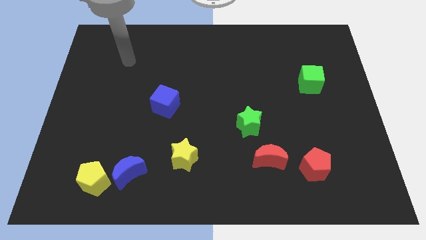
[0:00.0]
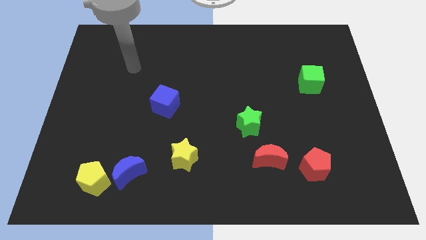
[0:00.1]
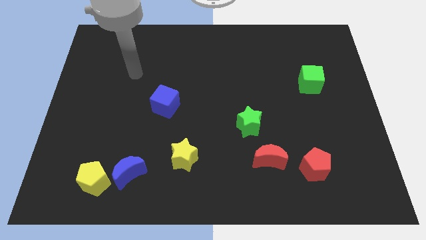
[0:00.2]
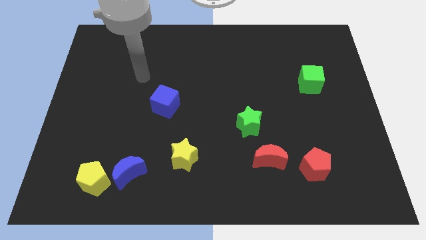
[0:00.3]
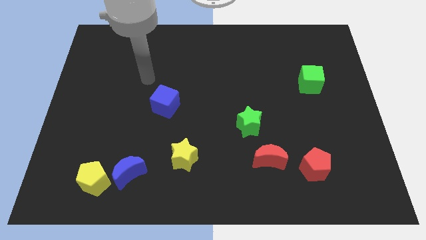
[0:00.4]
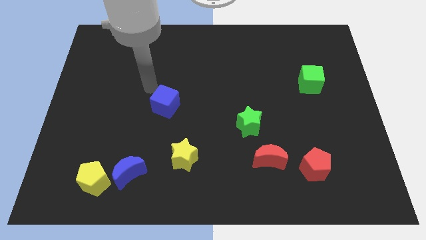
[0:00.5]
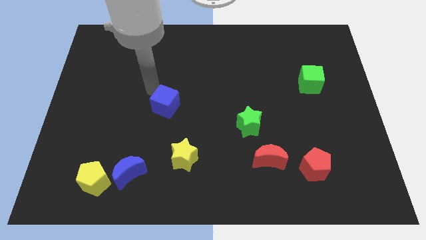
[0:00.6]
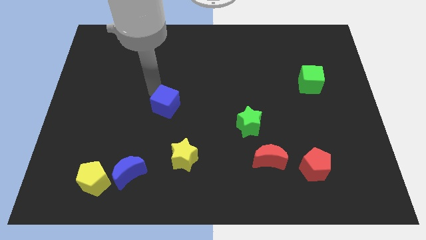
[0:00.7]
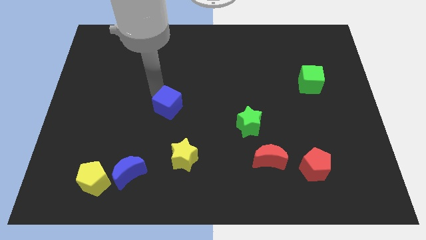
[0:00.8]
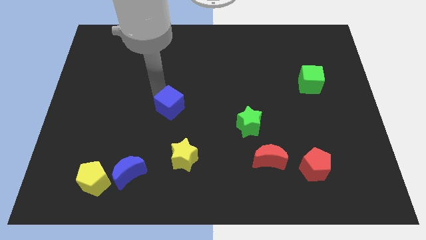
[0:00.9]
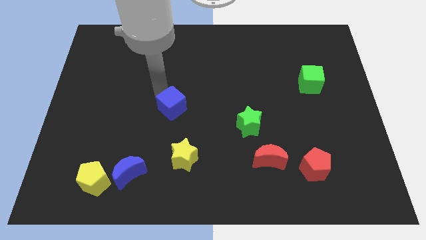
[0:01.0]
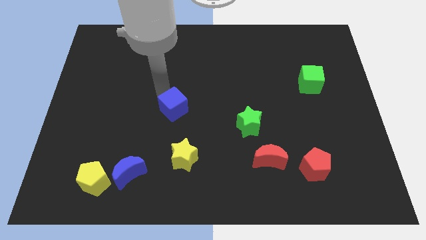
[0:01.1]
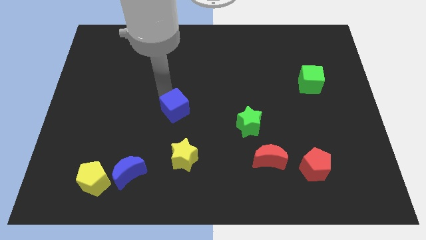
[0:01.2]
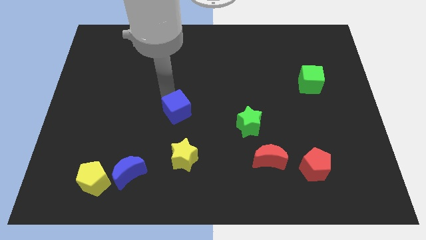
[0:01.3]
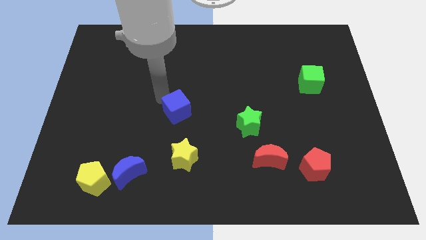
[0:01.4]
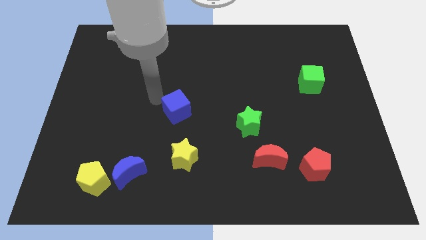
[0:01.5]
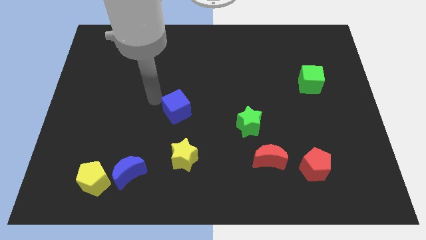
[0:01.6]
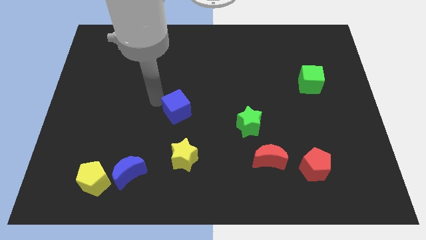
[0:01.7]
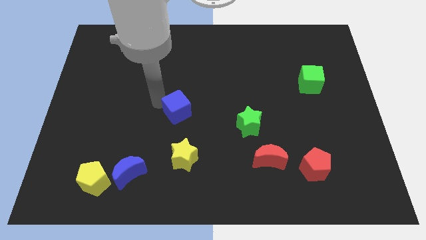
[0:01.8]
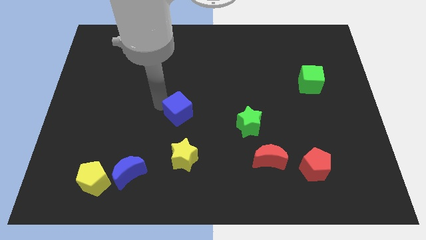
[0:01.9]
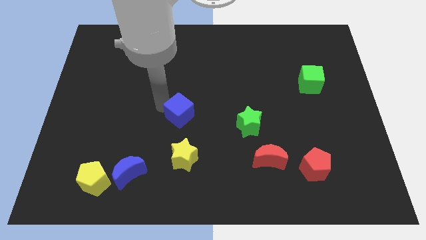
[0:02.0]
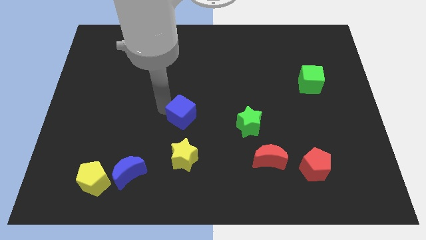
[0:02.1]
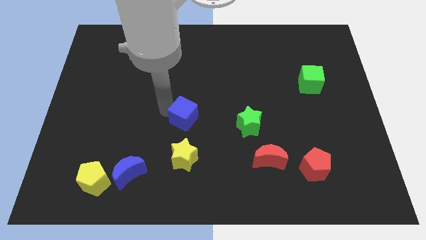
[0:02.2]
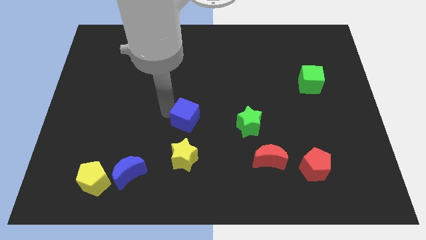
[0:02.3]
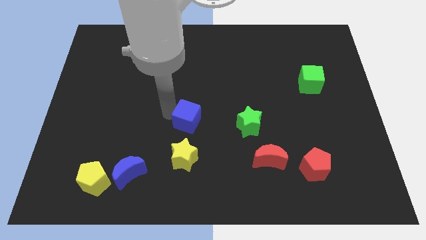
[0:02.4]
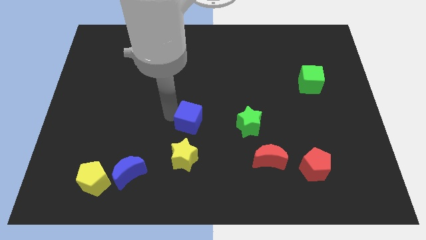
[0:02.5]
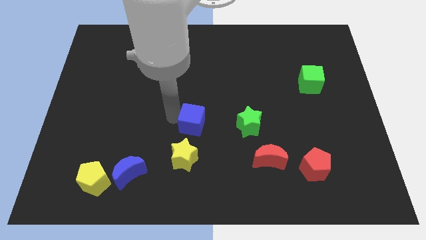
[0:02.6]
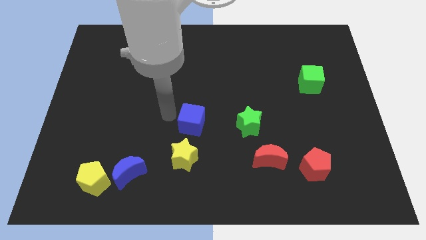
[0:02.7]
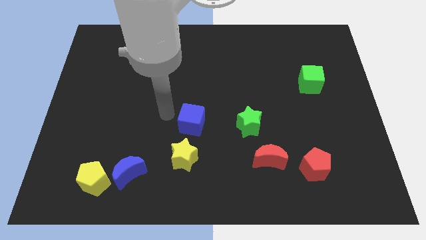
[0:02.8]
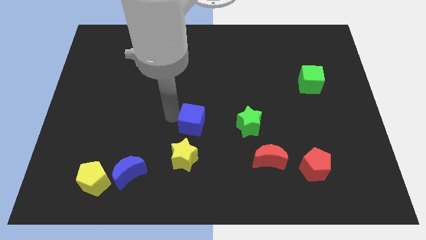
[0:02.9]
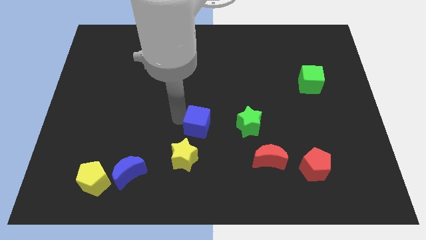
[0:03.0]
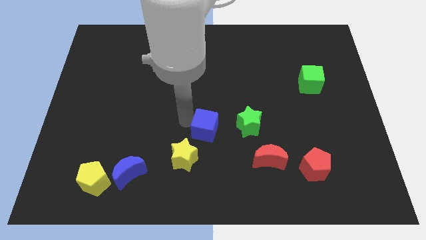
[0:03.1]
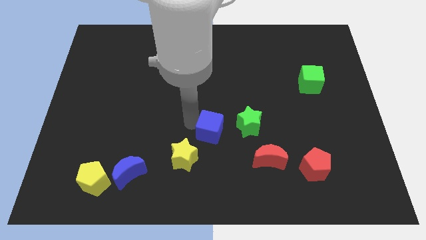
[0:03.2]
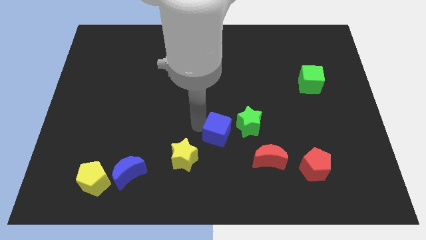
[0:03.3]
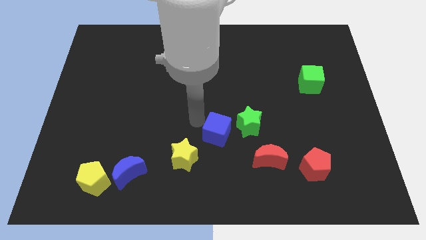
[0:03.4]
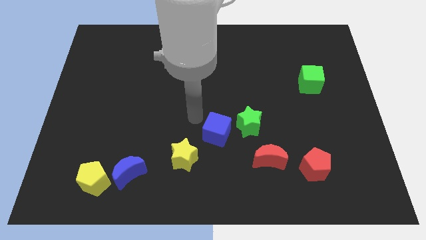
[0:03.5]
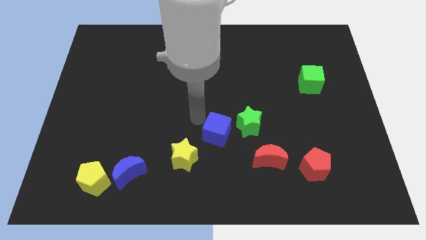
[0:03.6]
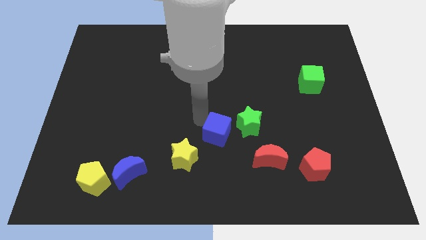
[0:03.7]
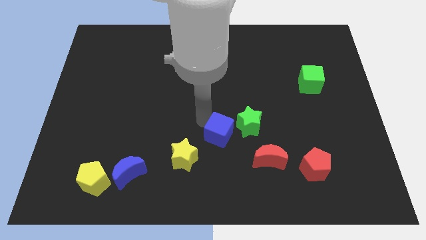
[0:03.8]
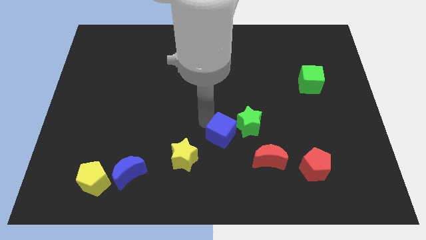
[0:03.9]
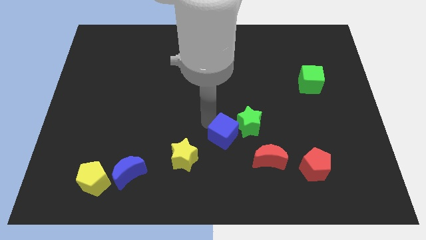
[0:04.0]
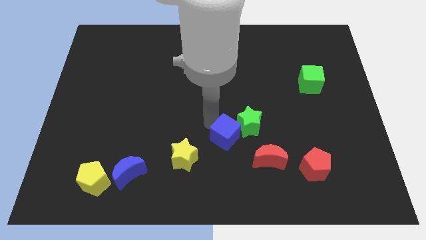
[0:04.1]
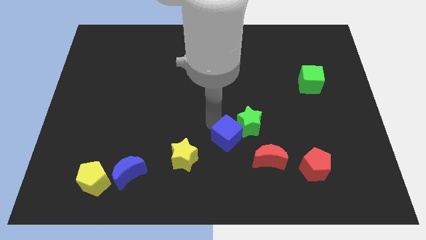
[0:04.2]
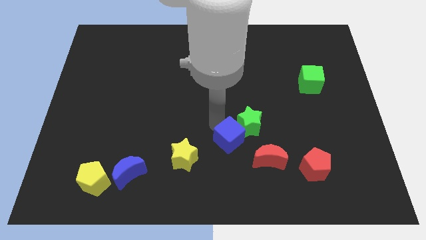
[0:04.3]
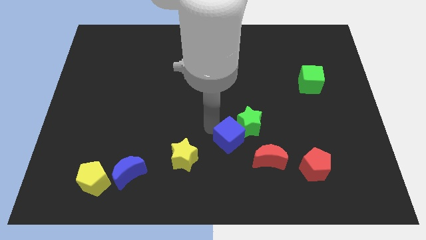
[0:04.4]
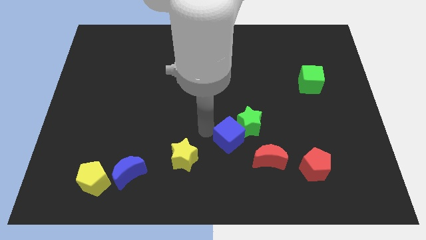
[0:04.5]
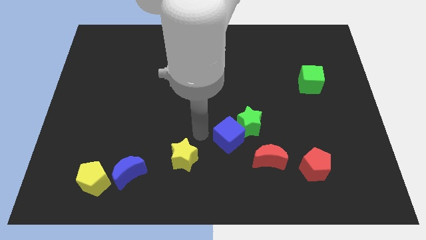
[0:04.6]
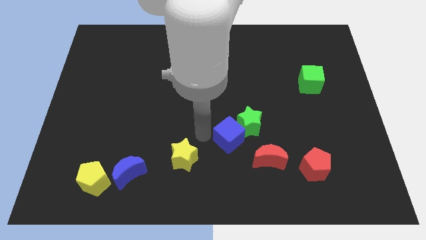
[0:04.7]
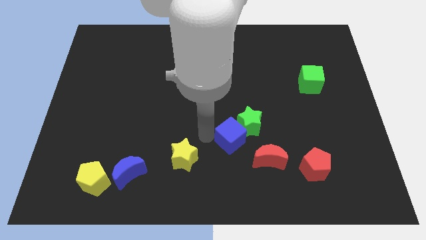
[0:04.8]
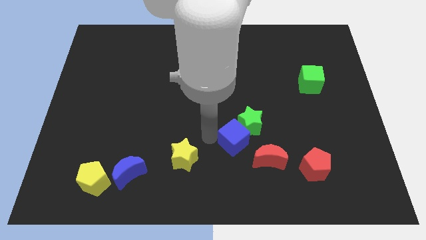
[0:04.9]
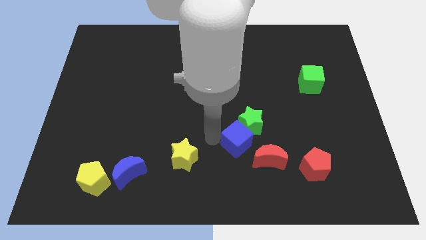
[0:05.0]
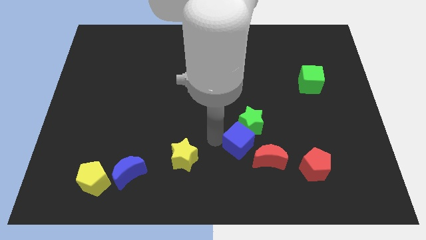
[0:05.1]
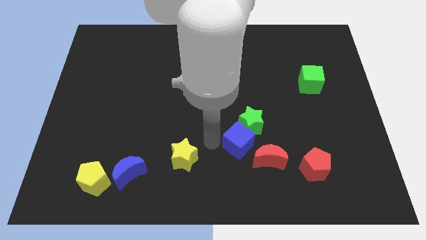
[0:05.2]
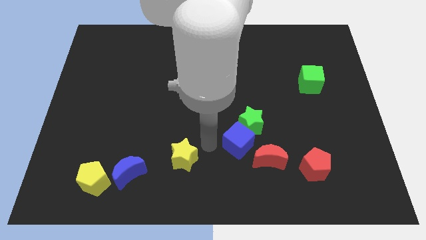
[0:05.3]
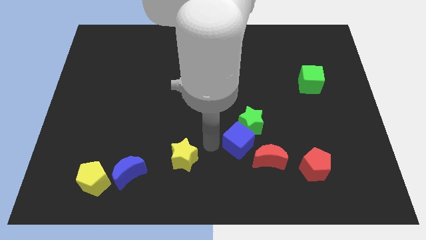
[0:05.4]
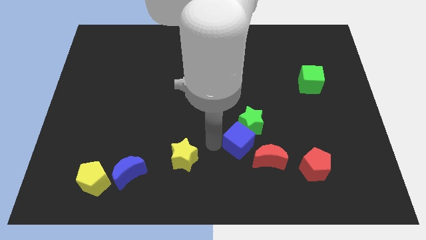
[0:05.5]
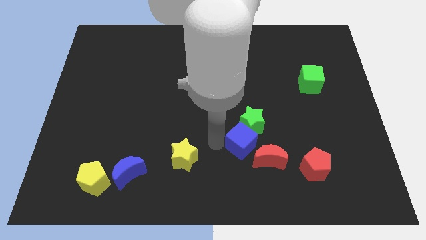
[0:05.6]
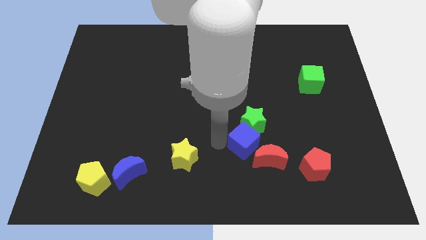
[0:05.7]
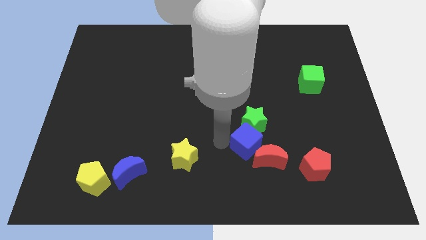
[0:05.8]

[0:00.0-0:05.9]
push the blue cube diagonally down and to the right of the green star

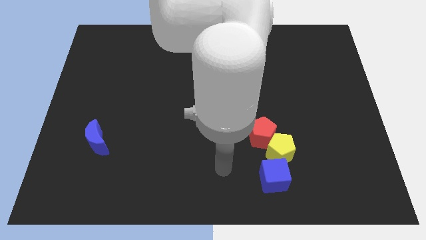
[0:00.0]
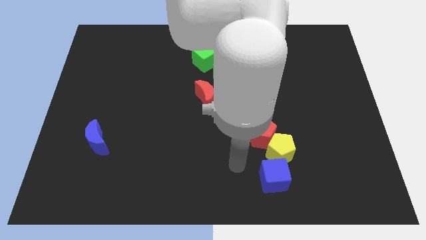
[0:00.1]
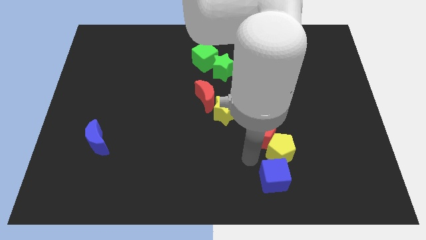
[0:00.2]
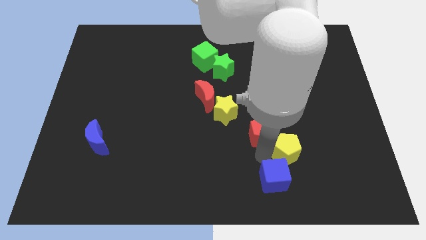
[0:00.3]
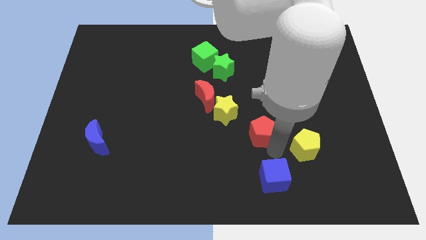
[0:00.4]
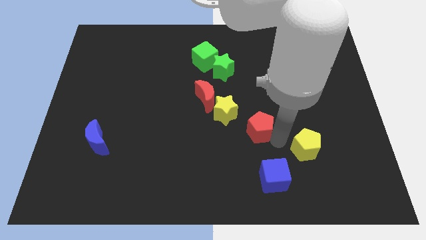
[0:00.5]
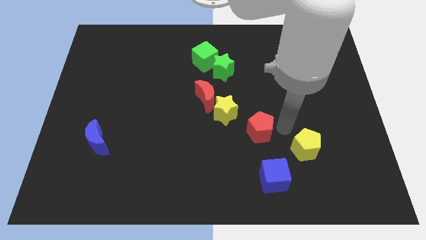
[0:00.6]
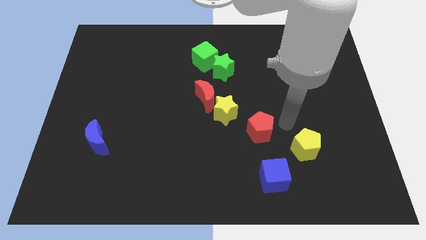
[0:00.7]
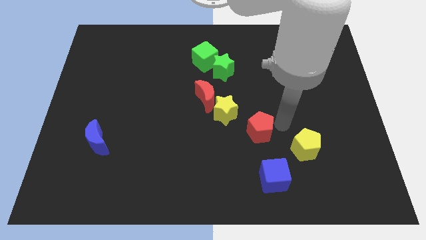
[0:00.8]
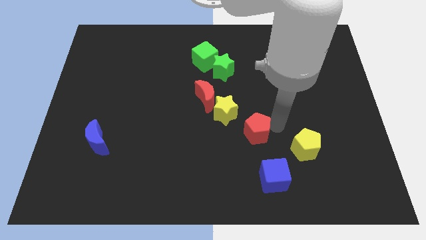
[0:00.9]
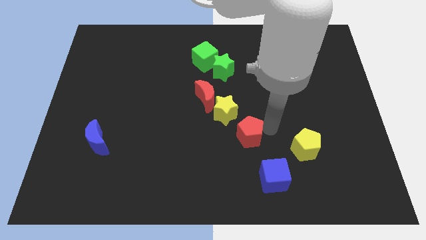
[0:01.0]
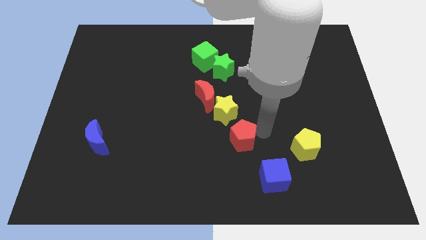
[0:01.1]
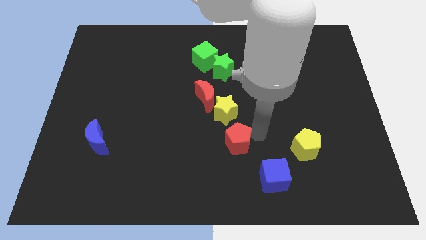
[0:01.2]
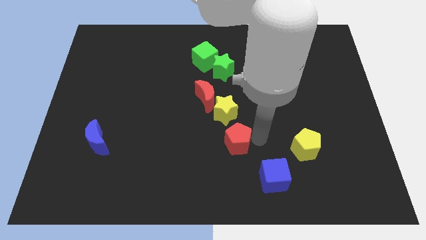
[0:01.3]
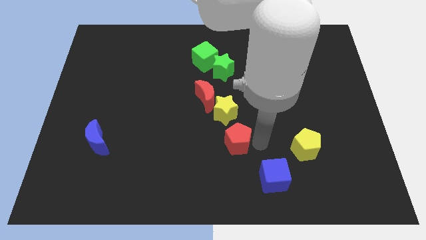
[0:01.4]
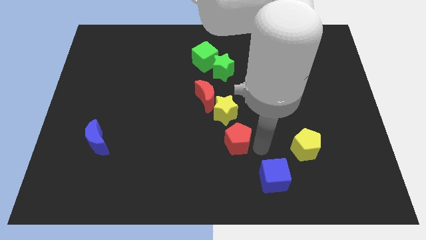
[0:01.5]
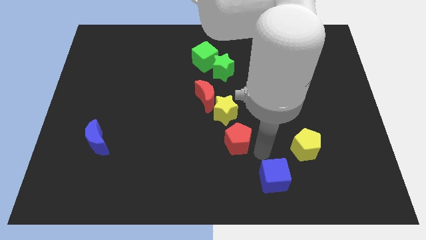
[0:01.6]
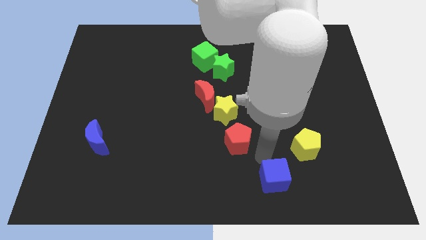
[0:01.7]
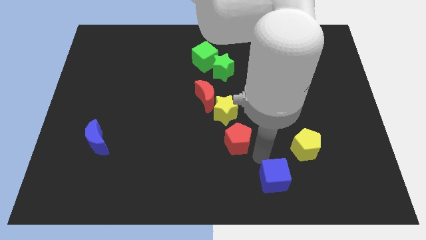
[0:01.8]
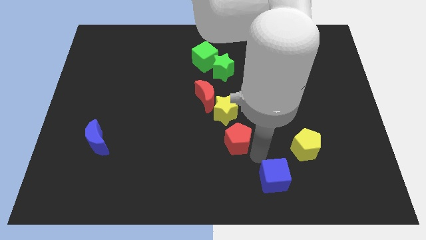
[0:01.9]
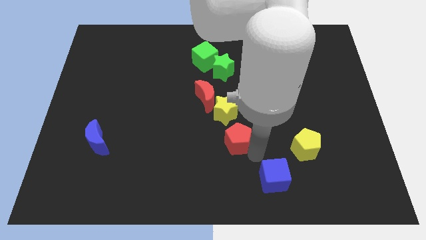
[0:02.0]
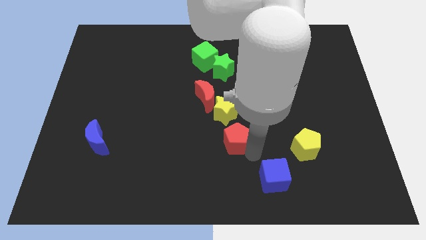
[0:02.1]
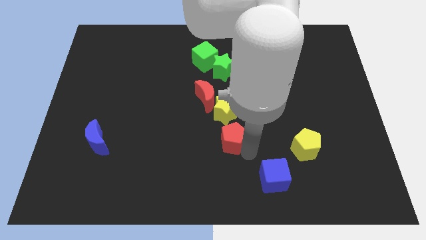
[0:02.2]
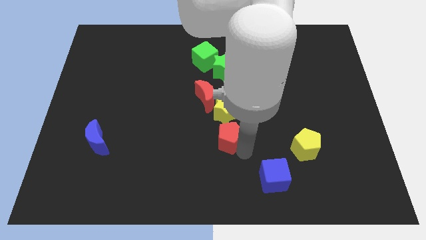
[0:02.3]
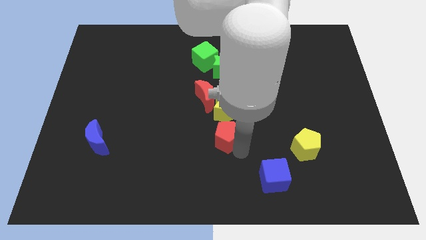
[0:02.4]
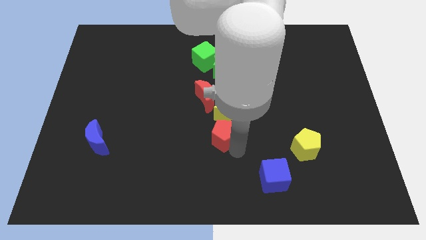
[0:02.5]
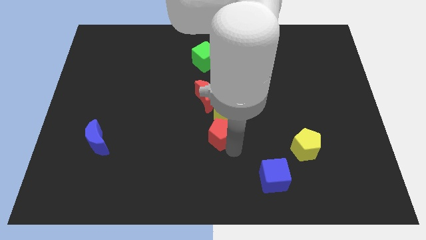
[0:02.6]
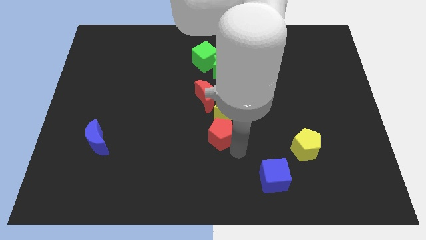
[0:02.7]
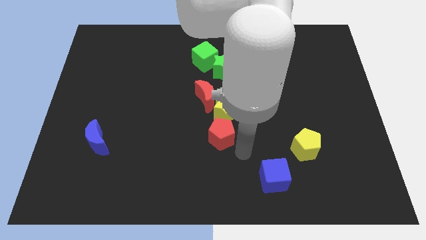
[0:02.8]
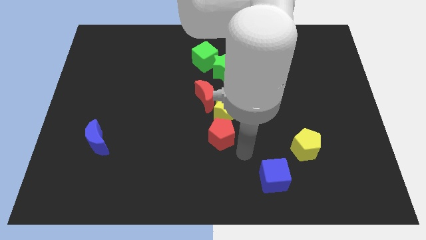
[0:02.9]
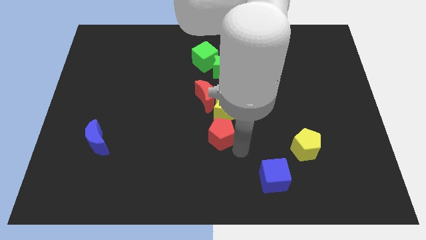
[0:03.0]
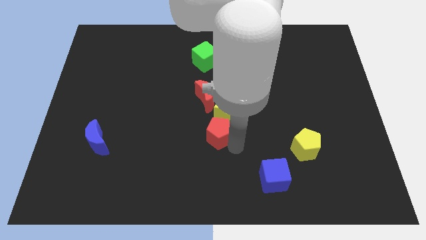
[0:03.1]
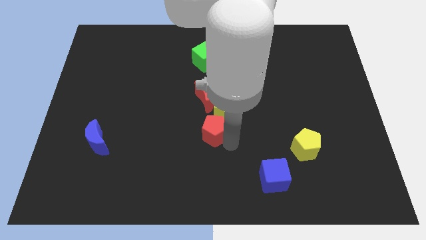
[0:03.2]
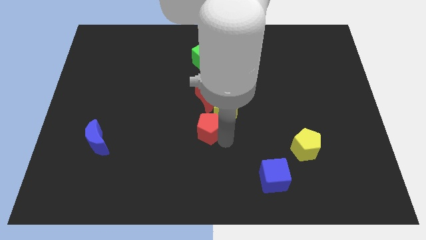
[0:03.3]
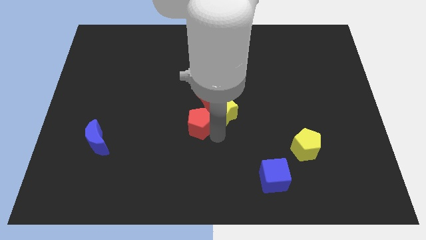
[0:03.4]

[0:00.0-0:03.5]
move the red pentagon to the left of the yellow star
